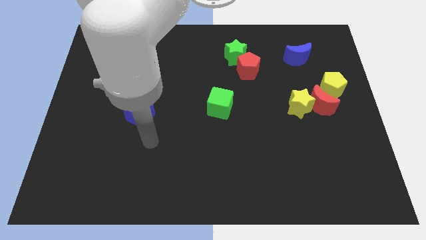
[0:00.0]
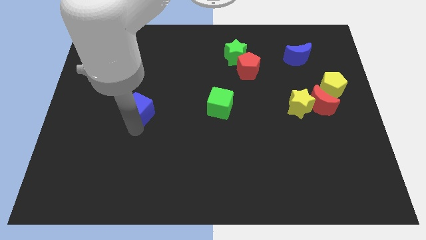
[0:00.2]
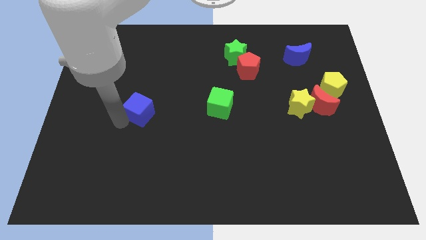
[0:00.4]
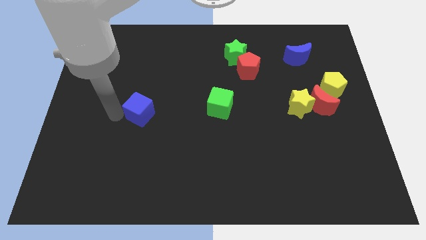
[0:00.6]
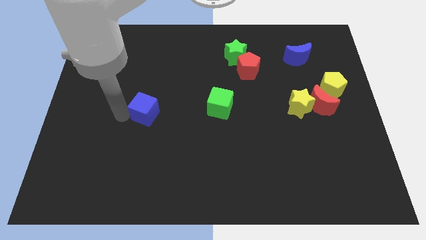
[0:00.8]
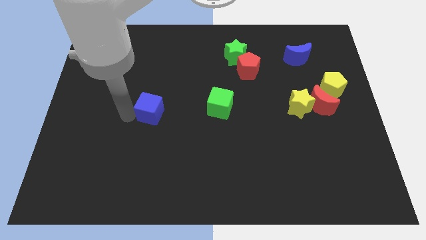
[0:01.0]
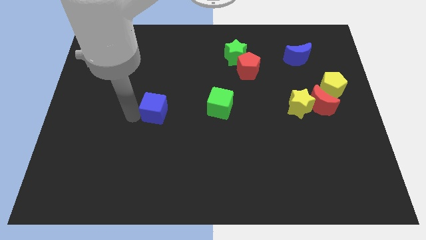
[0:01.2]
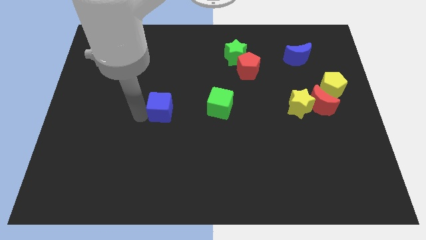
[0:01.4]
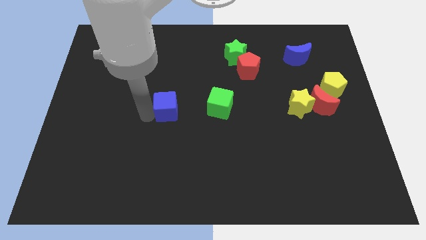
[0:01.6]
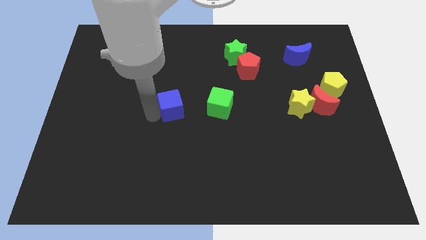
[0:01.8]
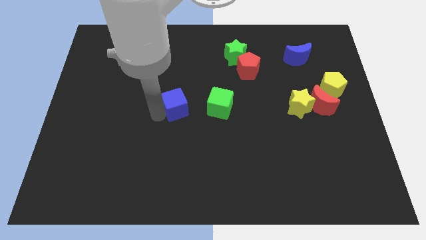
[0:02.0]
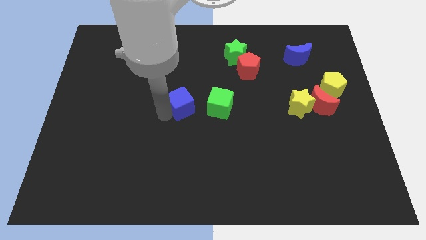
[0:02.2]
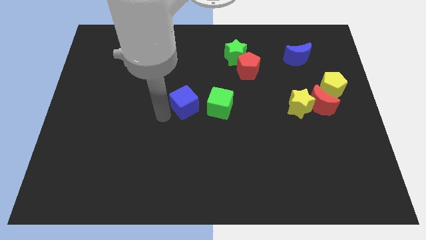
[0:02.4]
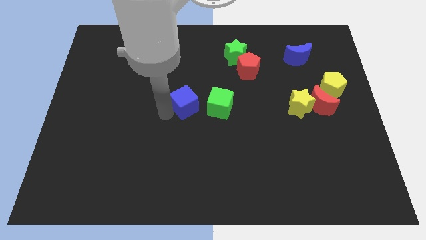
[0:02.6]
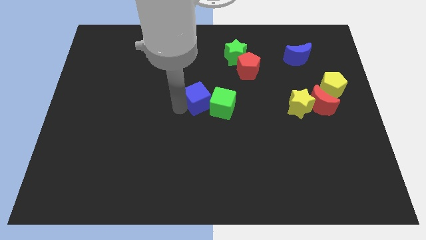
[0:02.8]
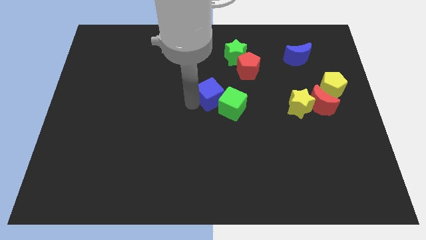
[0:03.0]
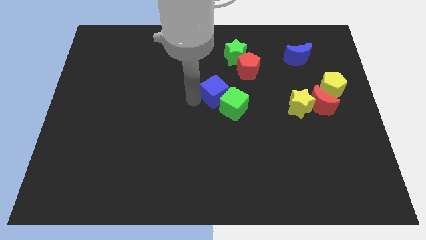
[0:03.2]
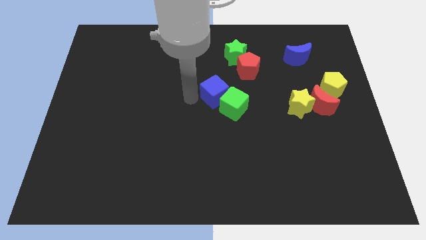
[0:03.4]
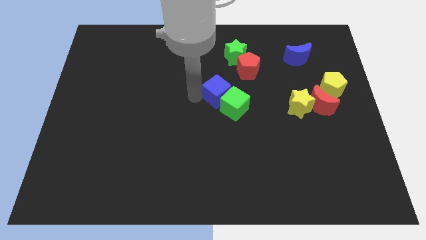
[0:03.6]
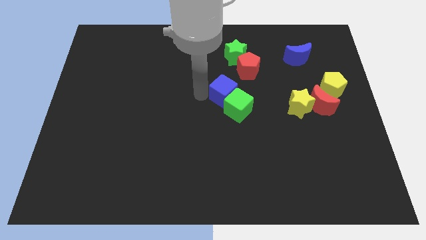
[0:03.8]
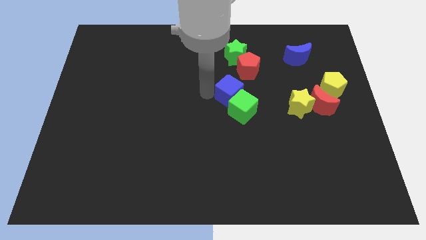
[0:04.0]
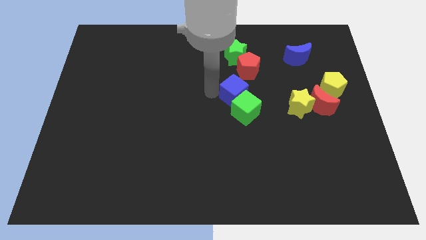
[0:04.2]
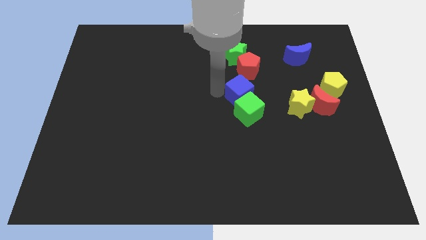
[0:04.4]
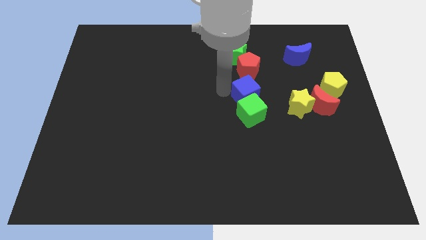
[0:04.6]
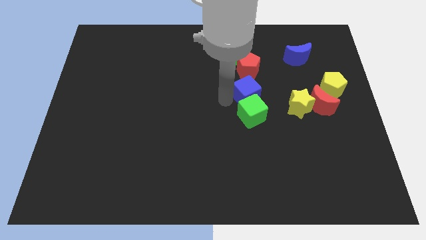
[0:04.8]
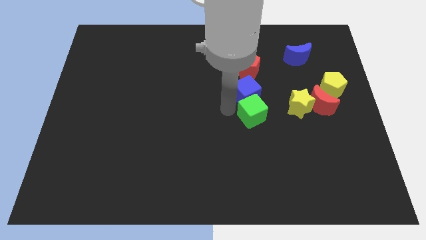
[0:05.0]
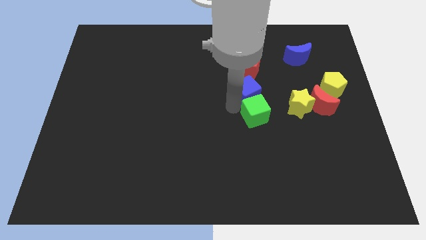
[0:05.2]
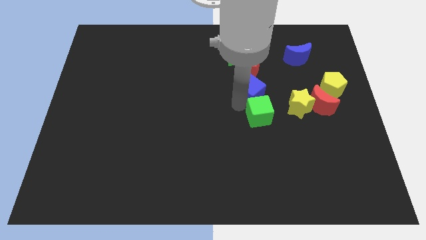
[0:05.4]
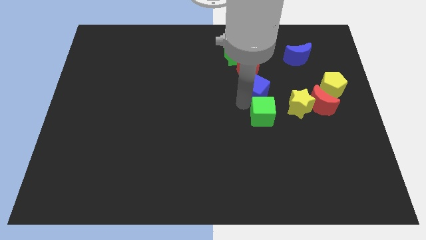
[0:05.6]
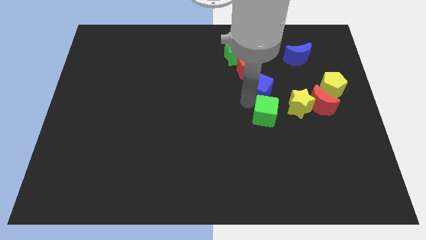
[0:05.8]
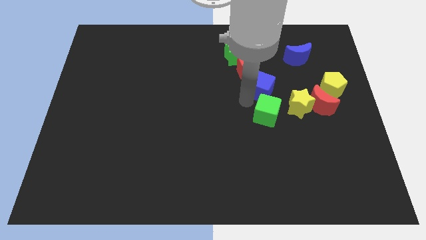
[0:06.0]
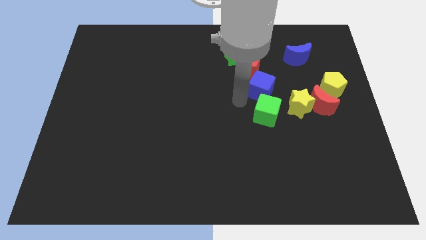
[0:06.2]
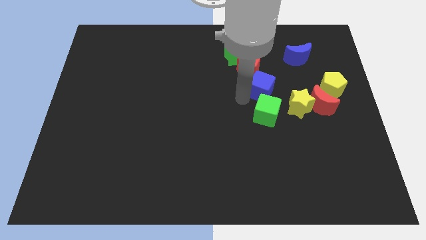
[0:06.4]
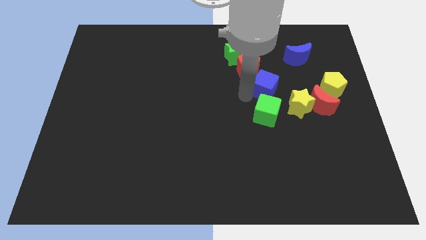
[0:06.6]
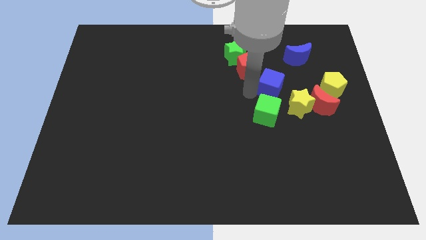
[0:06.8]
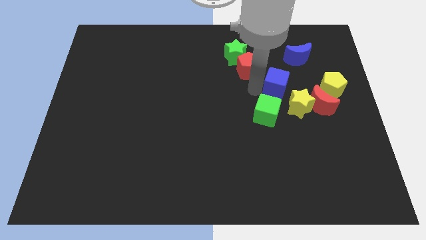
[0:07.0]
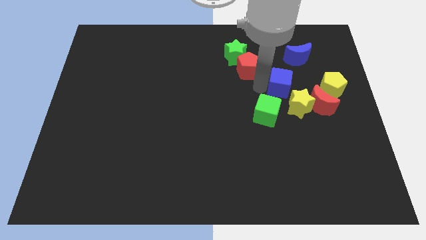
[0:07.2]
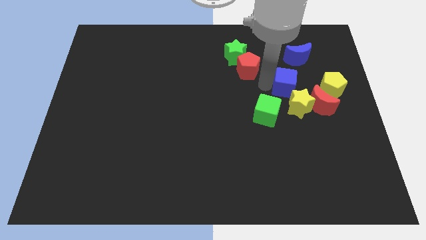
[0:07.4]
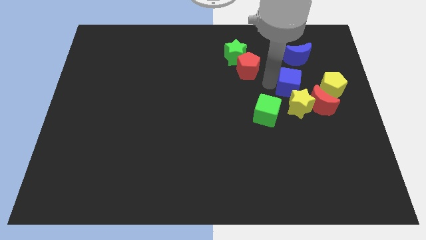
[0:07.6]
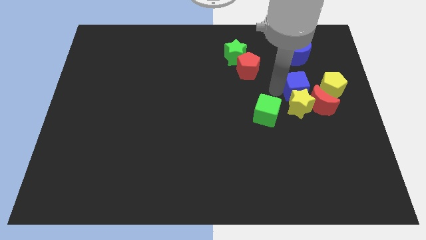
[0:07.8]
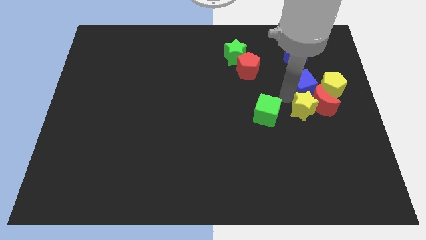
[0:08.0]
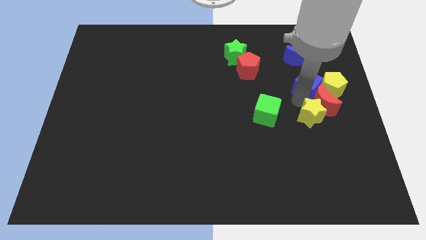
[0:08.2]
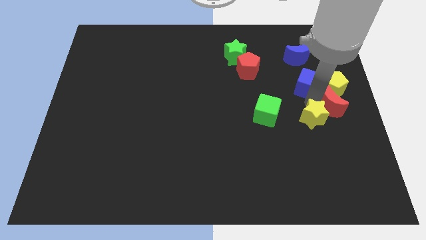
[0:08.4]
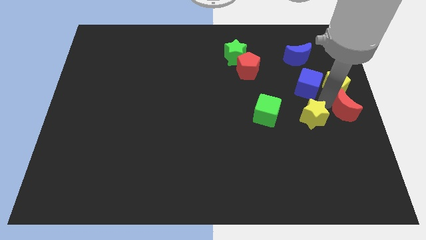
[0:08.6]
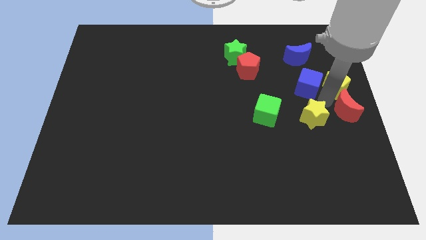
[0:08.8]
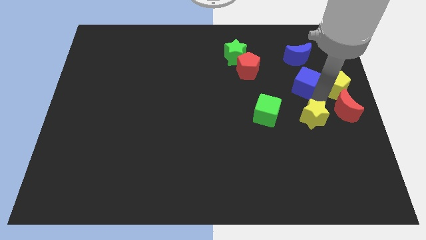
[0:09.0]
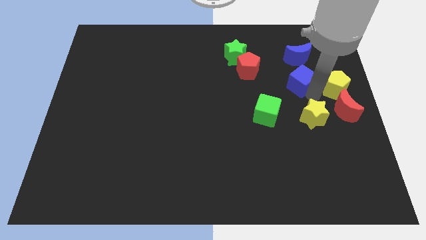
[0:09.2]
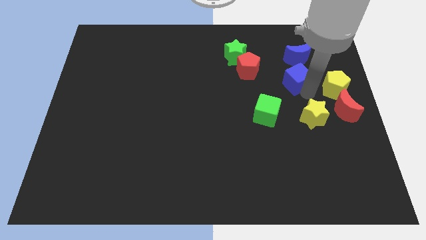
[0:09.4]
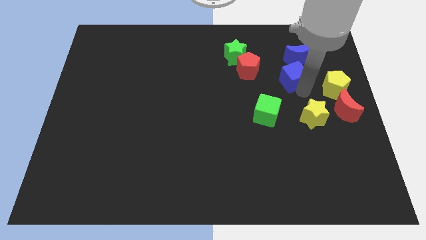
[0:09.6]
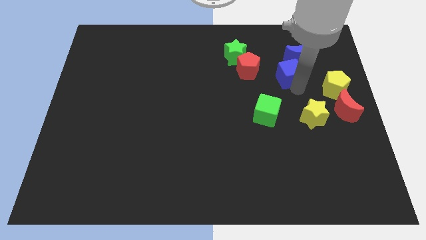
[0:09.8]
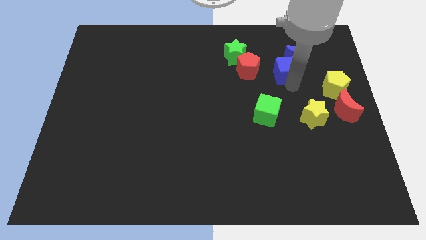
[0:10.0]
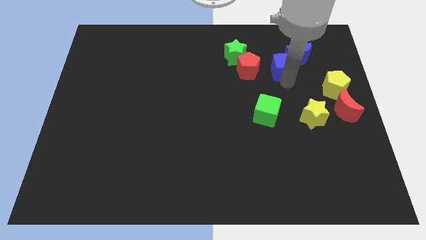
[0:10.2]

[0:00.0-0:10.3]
put the blue cube next to the blue moon

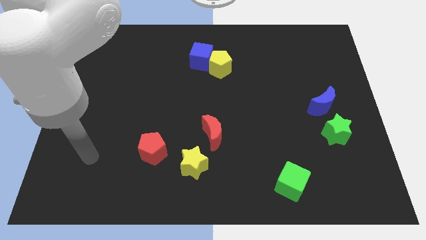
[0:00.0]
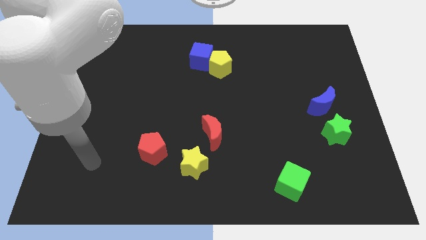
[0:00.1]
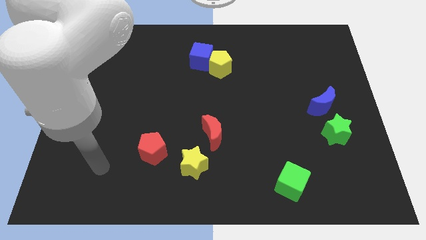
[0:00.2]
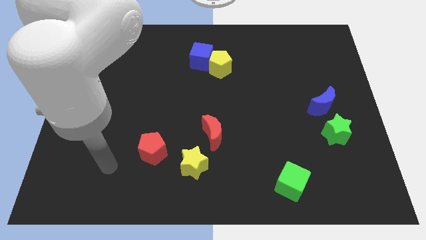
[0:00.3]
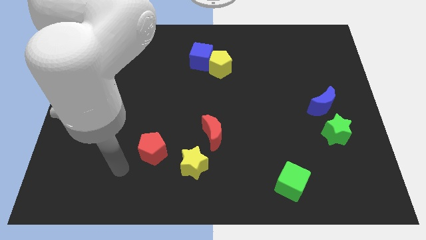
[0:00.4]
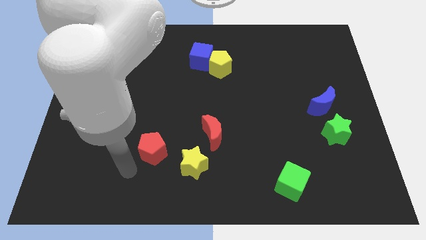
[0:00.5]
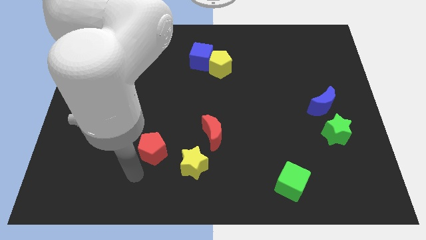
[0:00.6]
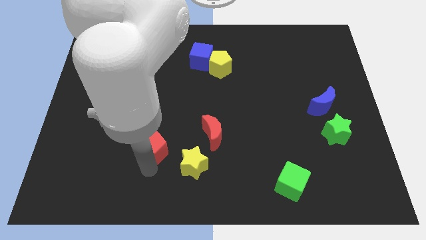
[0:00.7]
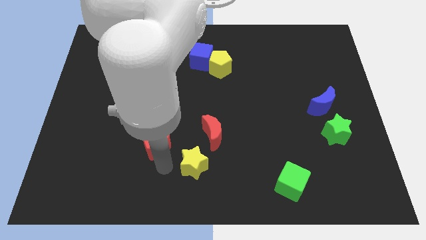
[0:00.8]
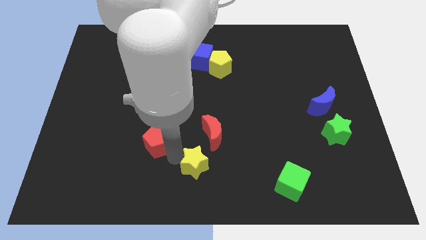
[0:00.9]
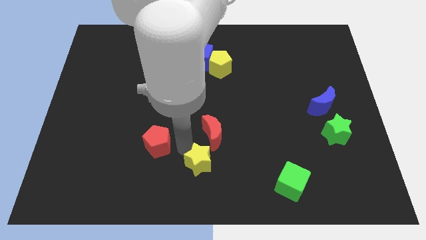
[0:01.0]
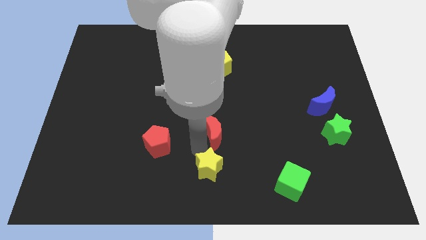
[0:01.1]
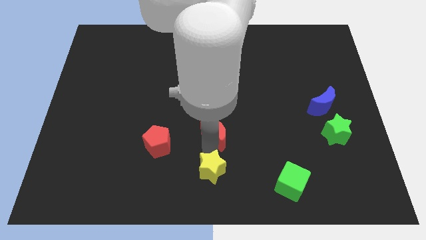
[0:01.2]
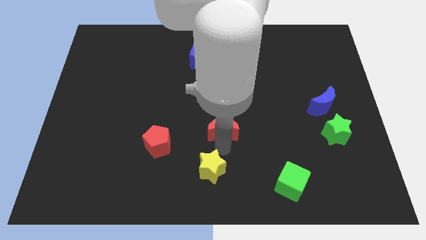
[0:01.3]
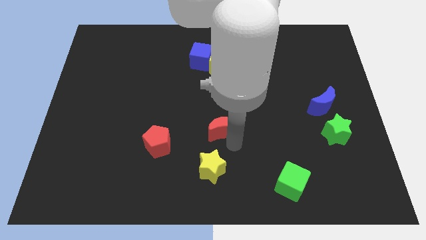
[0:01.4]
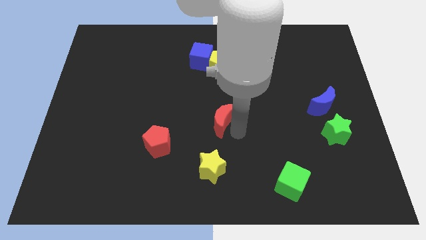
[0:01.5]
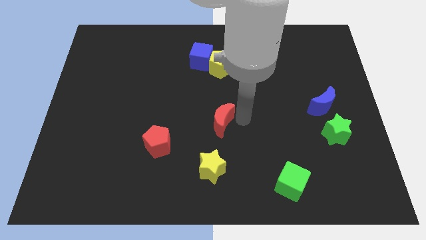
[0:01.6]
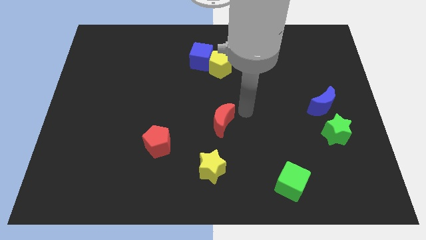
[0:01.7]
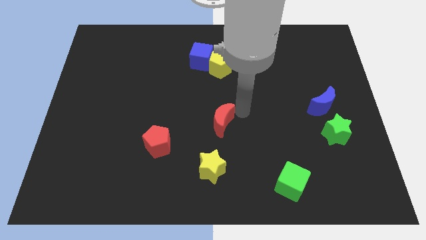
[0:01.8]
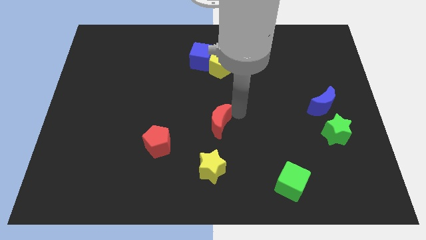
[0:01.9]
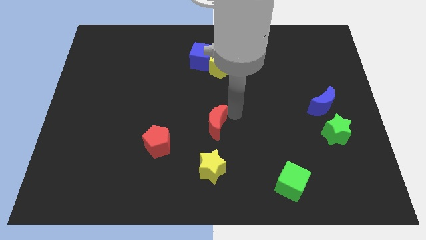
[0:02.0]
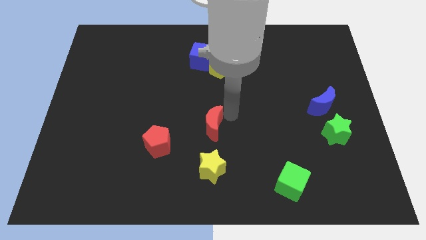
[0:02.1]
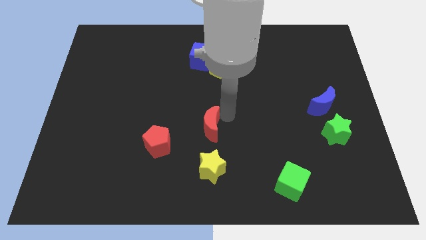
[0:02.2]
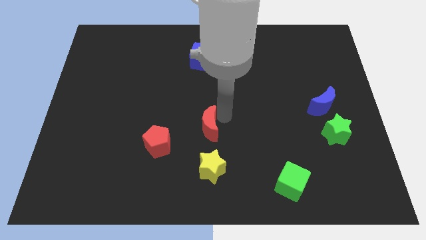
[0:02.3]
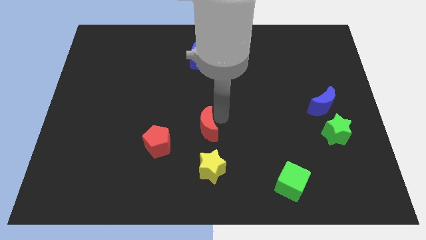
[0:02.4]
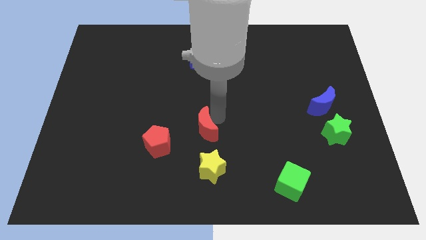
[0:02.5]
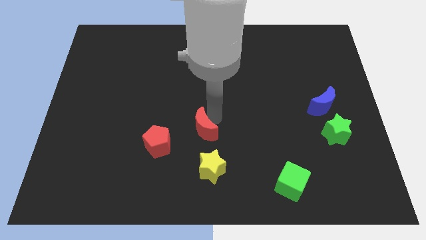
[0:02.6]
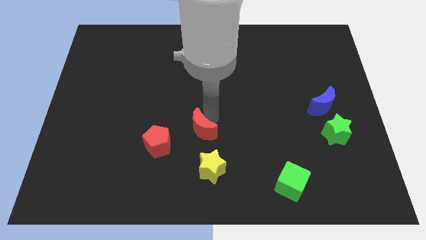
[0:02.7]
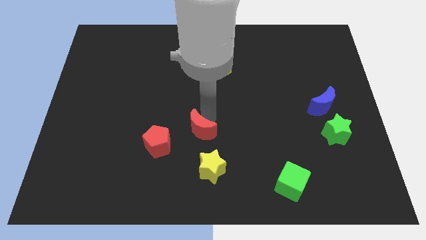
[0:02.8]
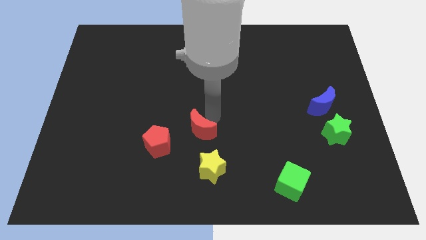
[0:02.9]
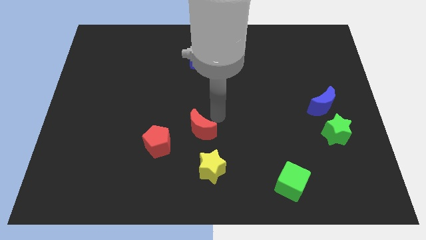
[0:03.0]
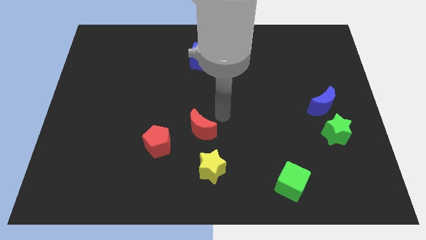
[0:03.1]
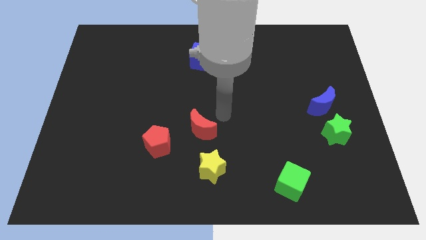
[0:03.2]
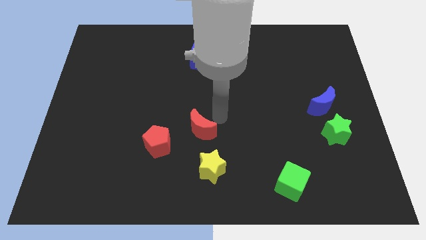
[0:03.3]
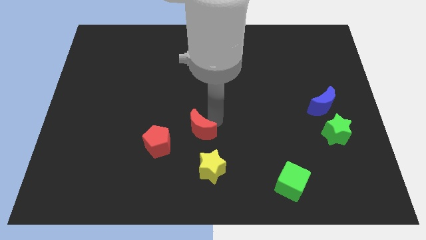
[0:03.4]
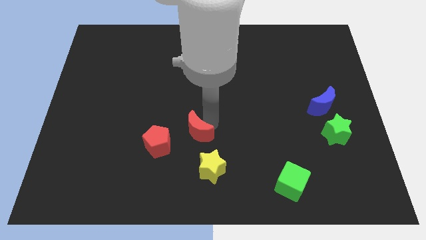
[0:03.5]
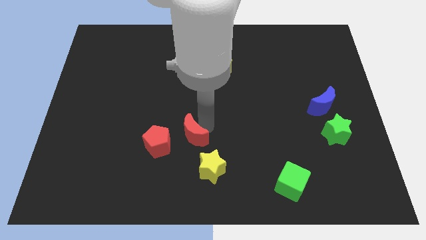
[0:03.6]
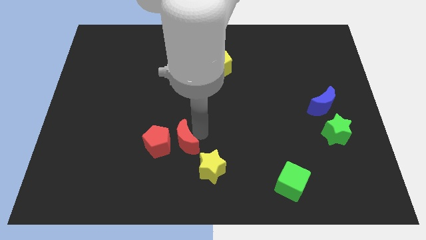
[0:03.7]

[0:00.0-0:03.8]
push the red moon next to the red pentagon
